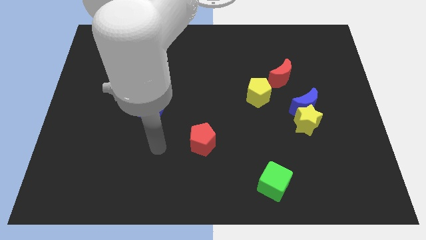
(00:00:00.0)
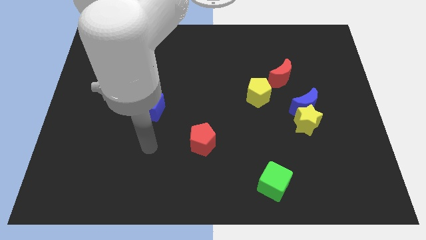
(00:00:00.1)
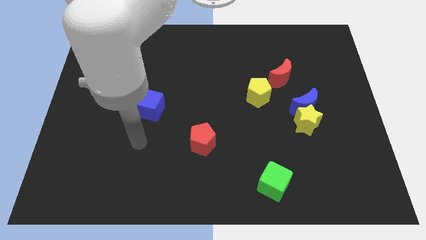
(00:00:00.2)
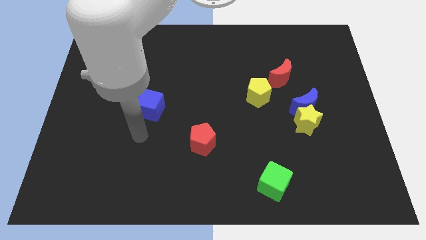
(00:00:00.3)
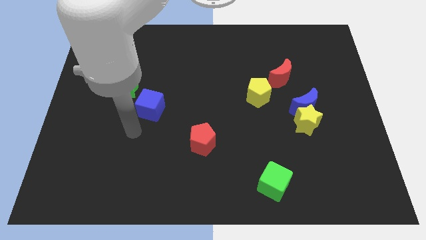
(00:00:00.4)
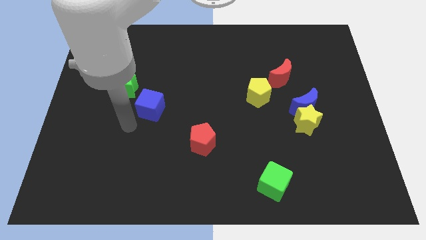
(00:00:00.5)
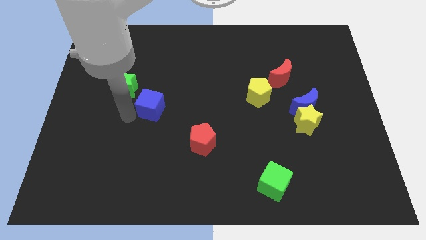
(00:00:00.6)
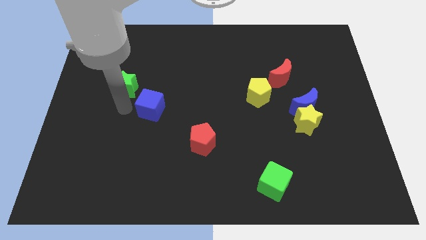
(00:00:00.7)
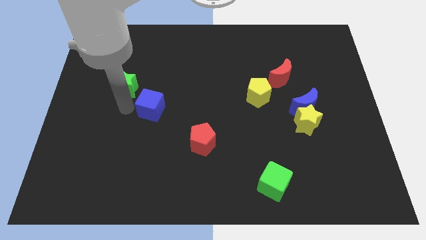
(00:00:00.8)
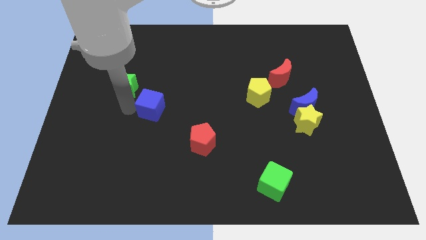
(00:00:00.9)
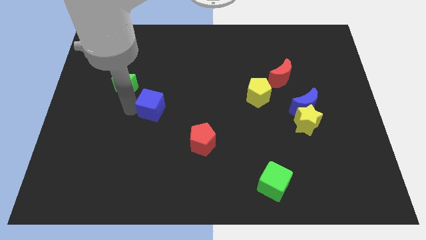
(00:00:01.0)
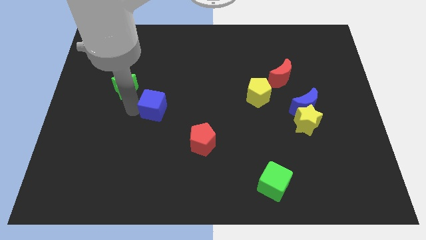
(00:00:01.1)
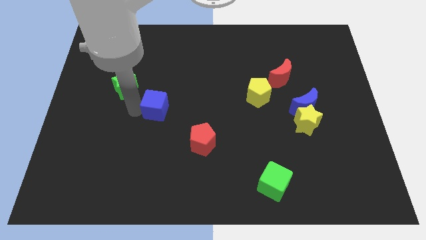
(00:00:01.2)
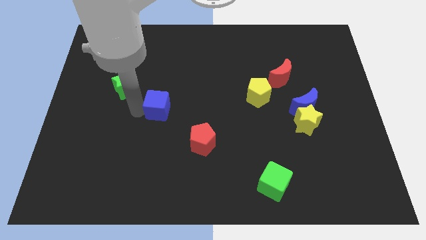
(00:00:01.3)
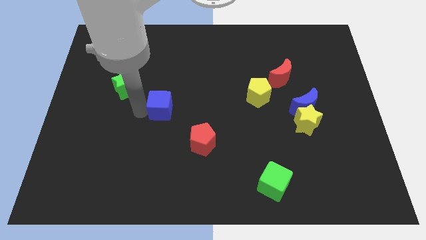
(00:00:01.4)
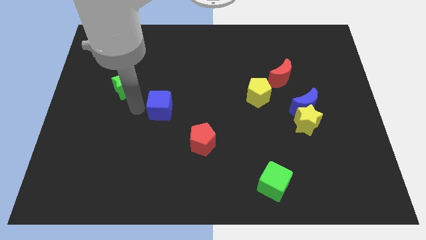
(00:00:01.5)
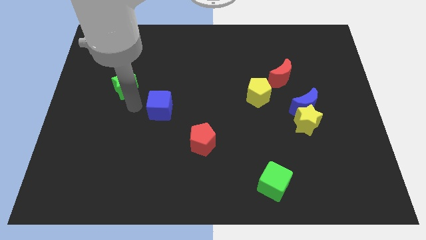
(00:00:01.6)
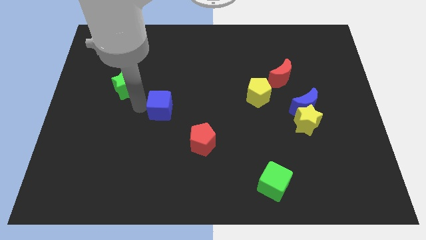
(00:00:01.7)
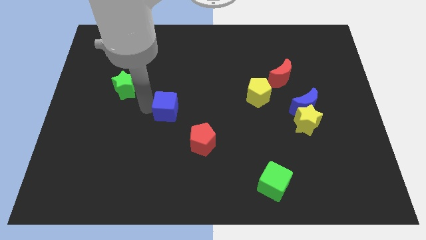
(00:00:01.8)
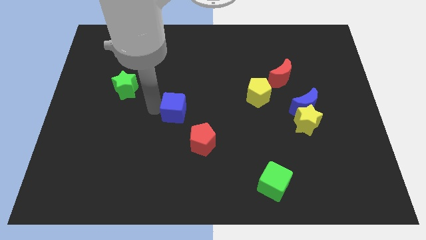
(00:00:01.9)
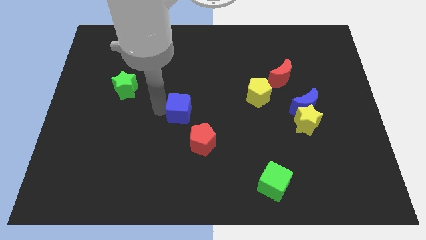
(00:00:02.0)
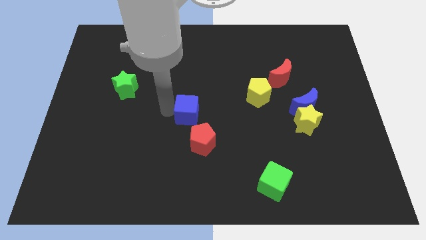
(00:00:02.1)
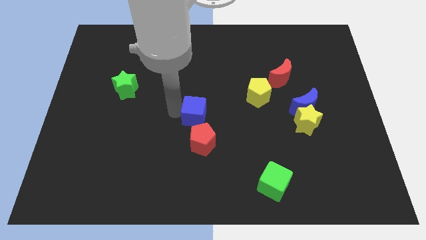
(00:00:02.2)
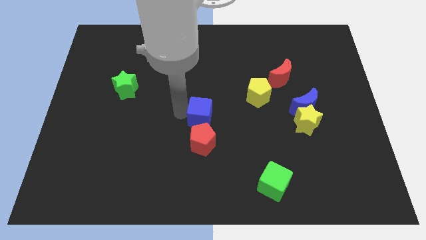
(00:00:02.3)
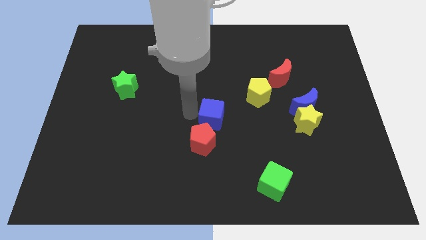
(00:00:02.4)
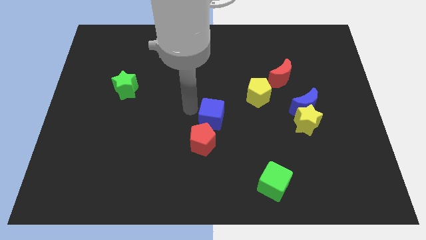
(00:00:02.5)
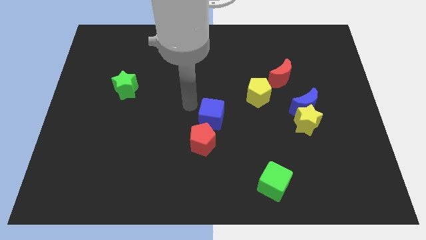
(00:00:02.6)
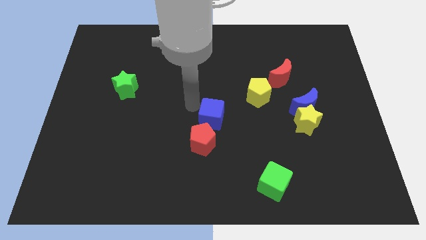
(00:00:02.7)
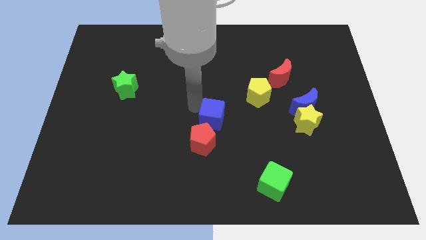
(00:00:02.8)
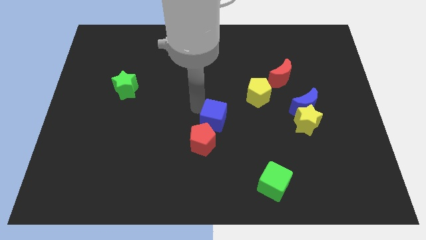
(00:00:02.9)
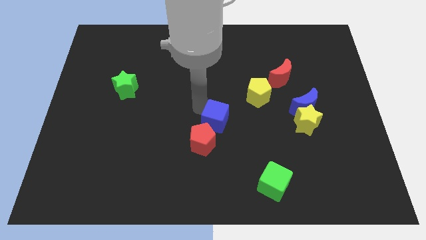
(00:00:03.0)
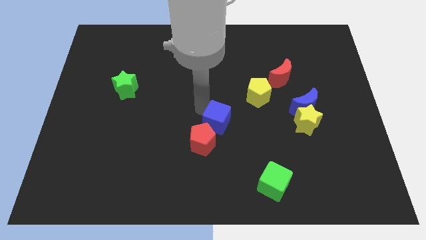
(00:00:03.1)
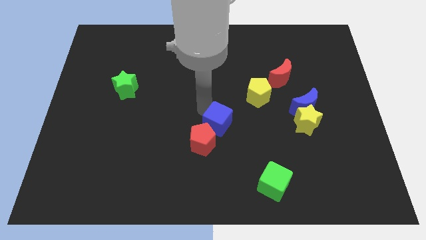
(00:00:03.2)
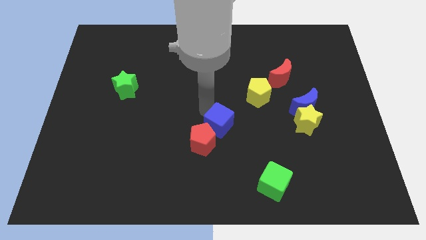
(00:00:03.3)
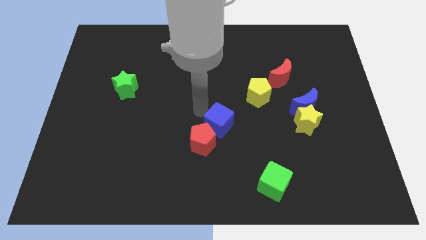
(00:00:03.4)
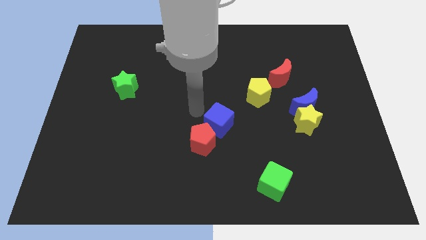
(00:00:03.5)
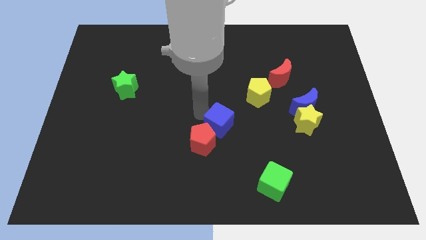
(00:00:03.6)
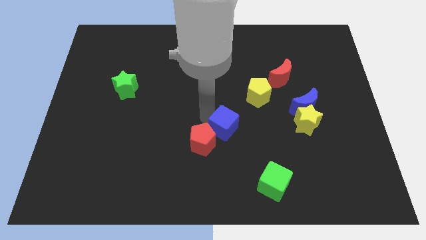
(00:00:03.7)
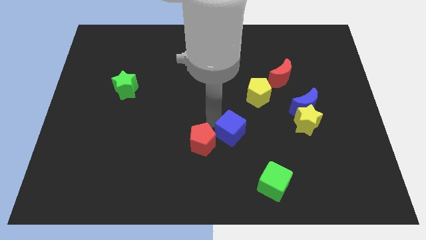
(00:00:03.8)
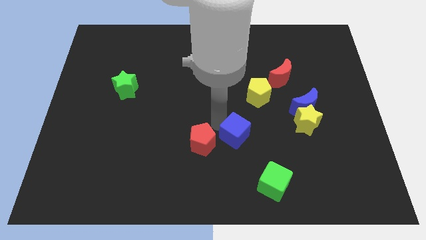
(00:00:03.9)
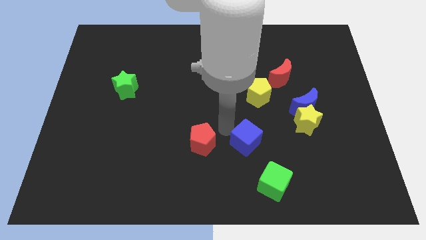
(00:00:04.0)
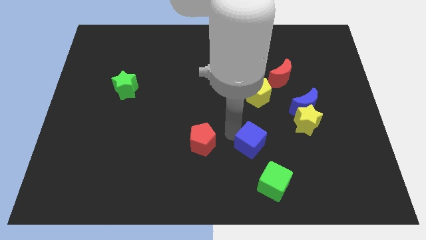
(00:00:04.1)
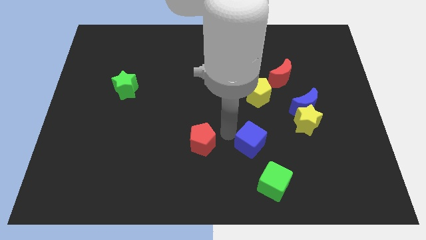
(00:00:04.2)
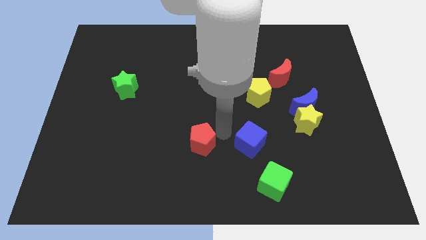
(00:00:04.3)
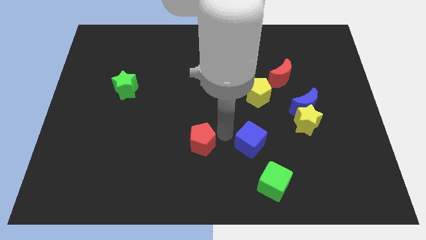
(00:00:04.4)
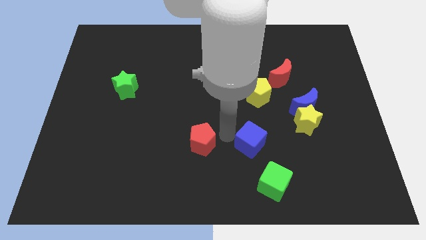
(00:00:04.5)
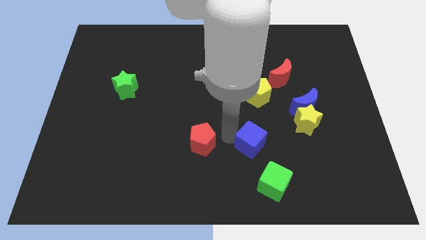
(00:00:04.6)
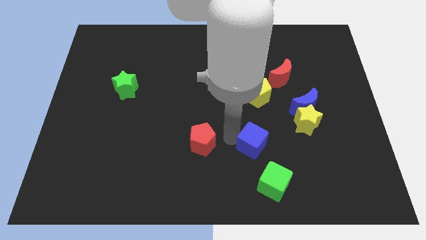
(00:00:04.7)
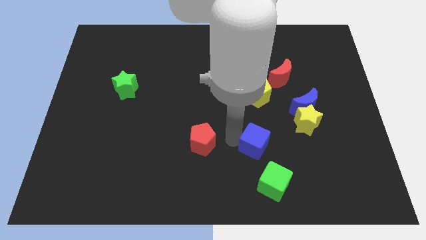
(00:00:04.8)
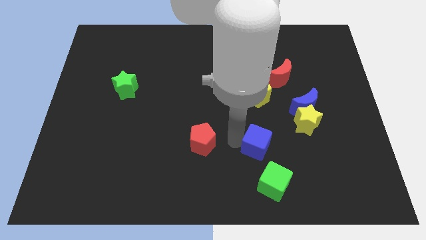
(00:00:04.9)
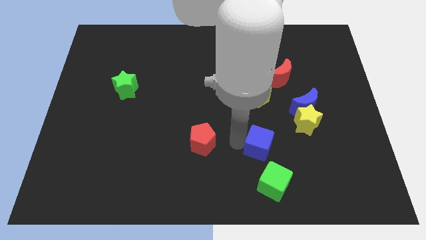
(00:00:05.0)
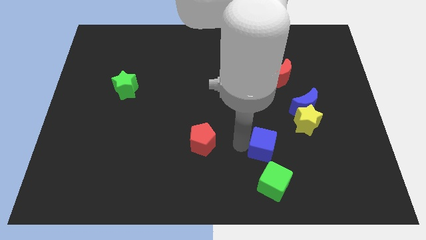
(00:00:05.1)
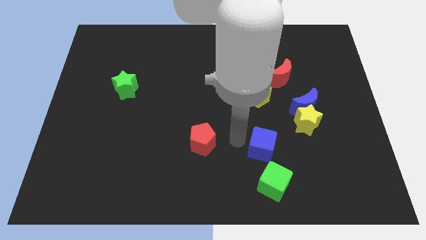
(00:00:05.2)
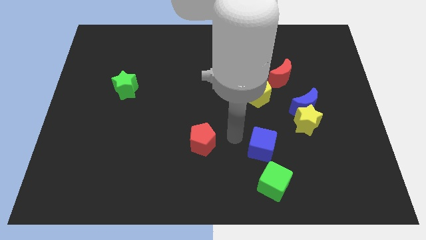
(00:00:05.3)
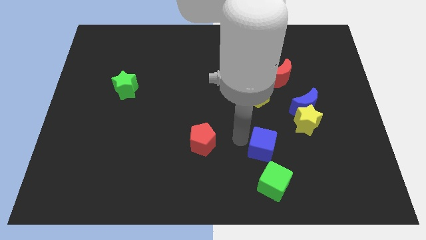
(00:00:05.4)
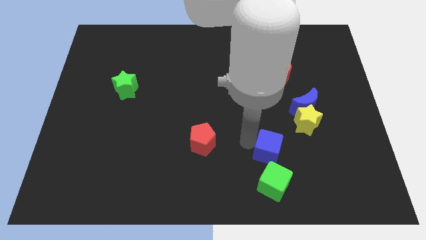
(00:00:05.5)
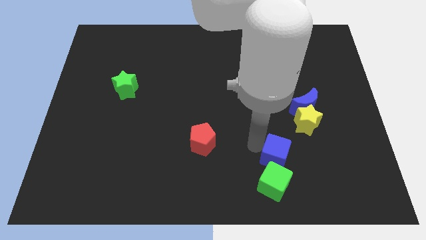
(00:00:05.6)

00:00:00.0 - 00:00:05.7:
push the blue cube to the top right side of the green cube
